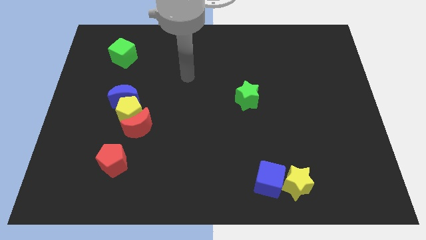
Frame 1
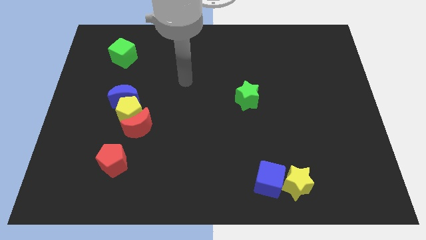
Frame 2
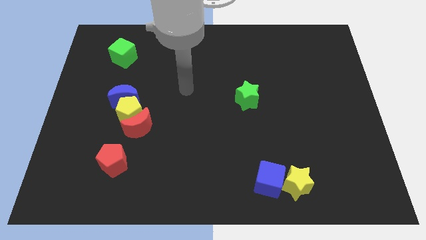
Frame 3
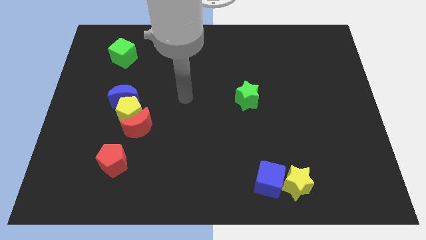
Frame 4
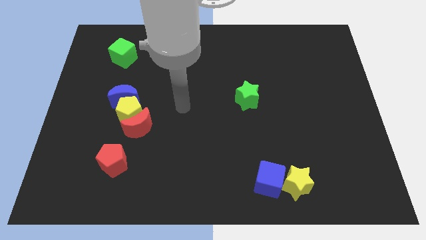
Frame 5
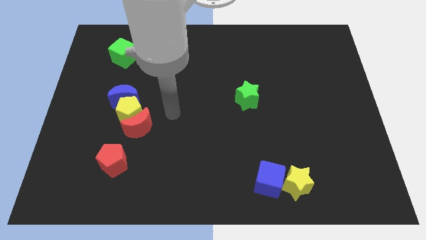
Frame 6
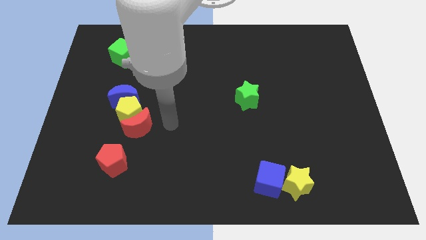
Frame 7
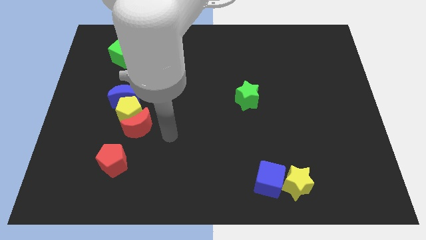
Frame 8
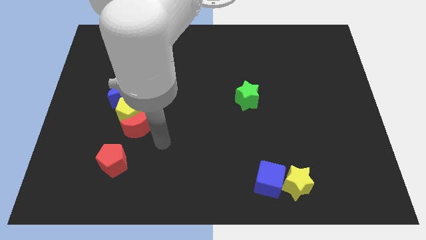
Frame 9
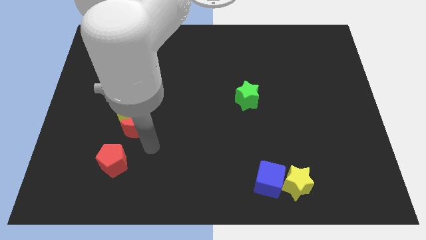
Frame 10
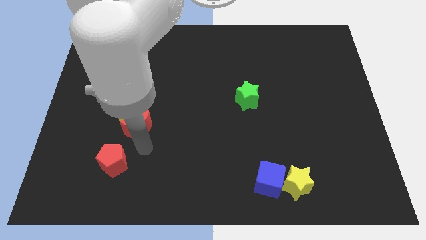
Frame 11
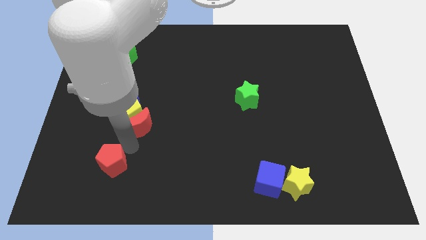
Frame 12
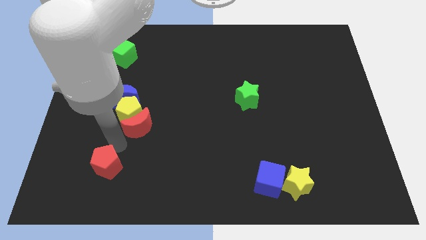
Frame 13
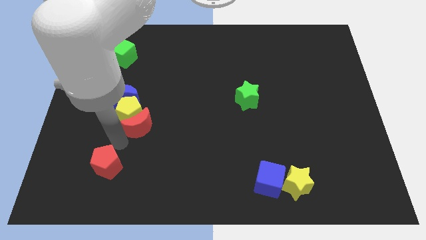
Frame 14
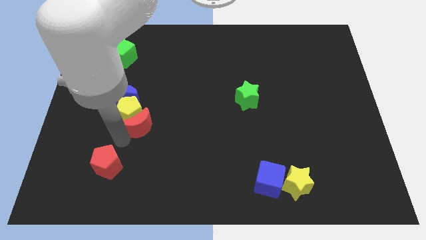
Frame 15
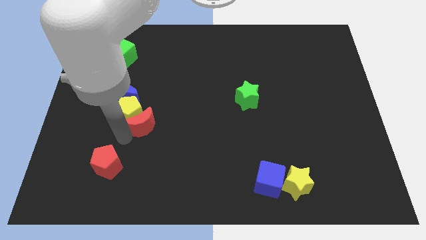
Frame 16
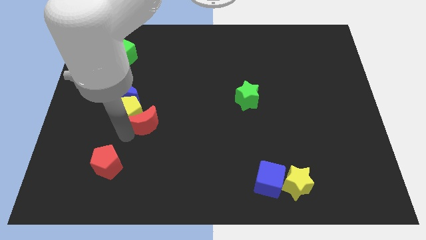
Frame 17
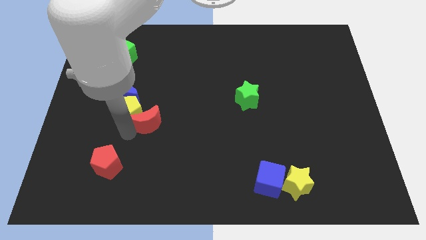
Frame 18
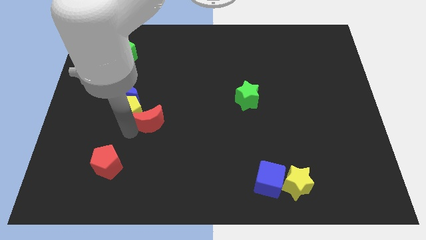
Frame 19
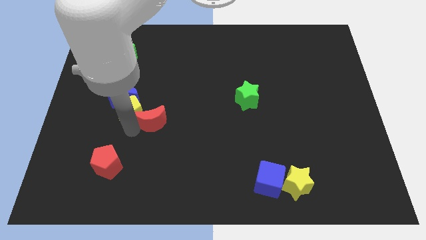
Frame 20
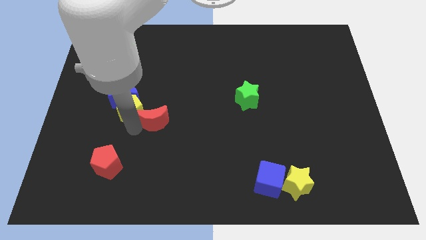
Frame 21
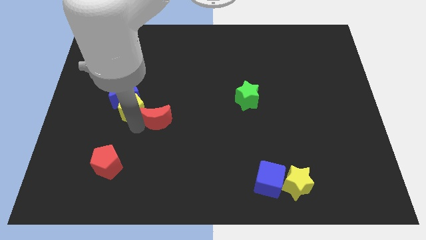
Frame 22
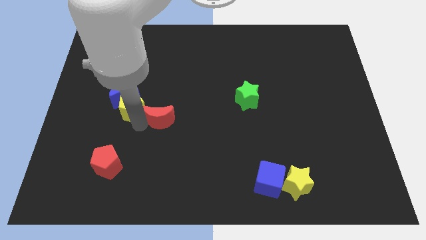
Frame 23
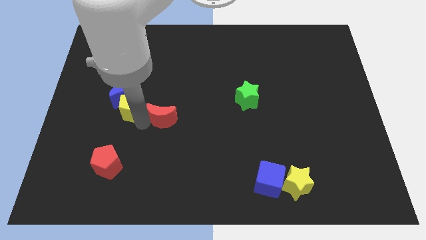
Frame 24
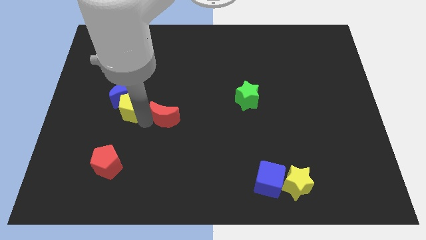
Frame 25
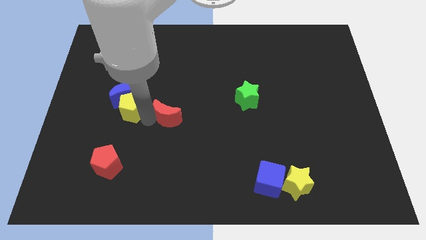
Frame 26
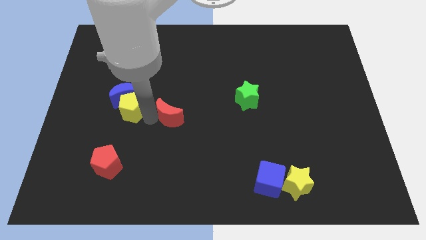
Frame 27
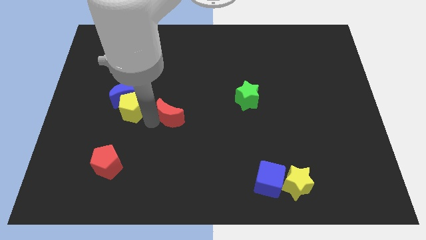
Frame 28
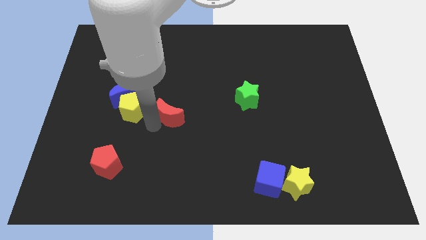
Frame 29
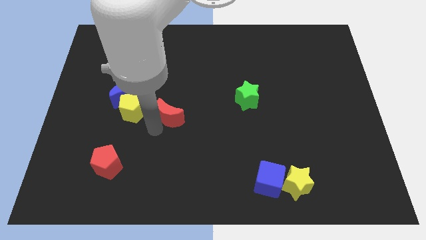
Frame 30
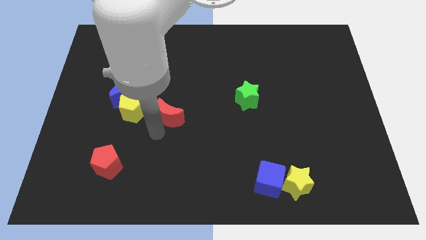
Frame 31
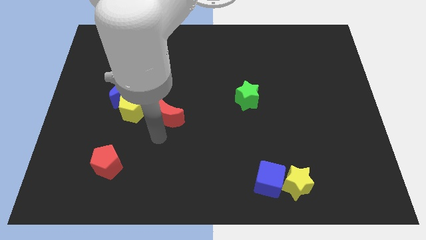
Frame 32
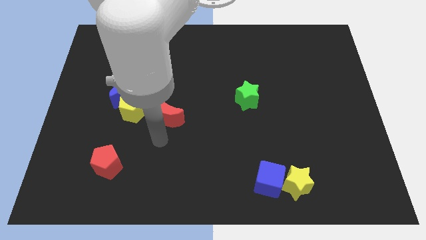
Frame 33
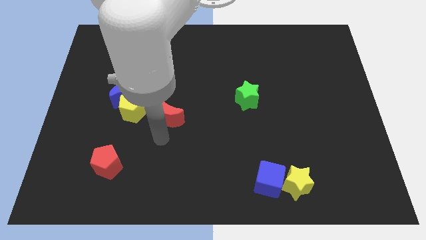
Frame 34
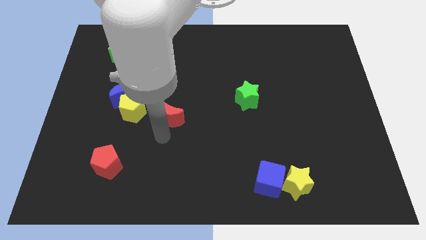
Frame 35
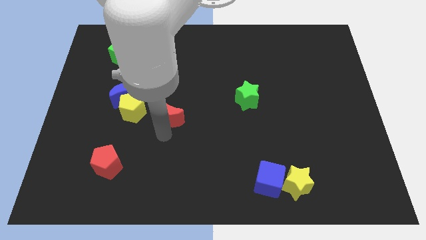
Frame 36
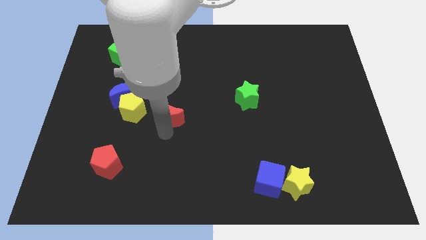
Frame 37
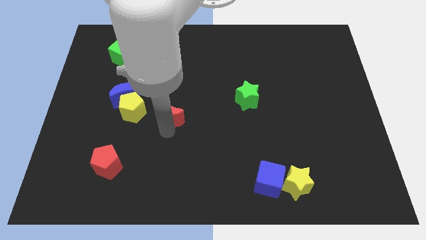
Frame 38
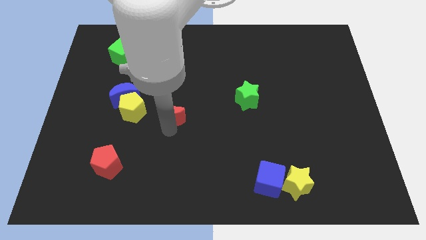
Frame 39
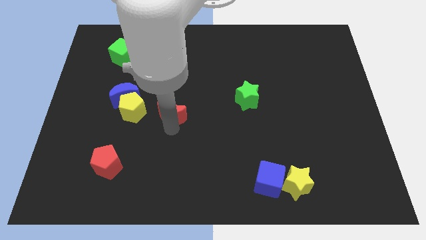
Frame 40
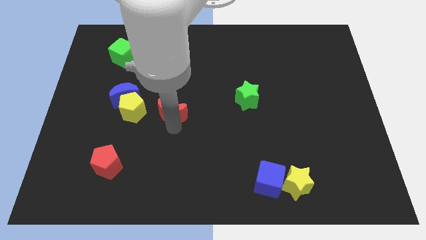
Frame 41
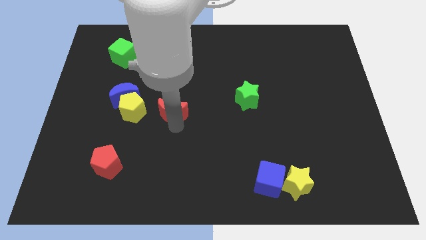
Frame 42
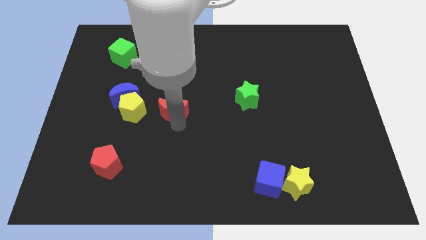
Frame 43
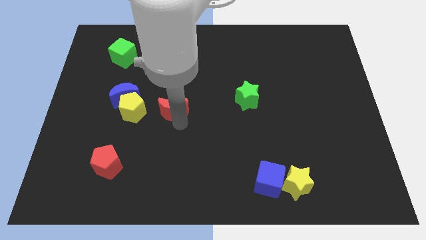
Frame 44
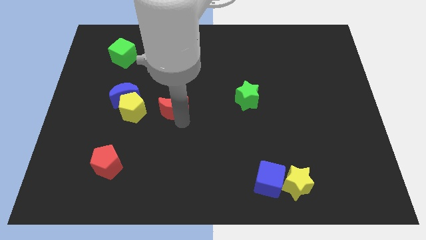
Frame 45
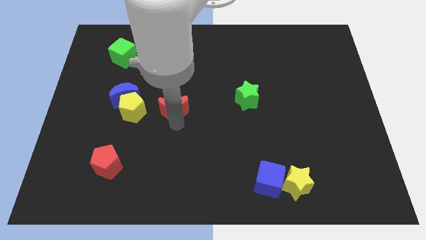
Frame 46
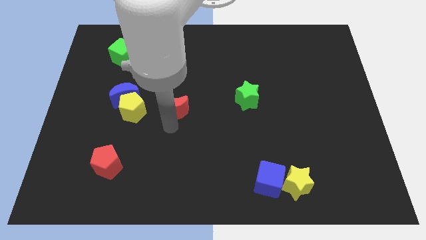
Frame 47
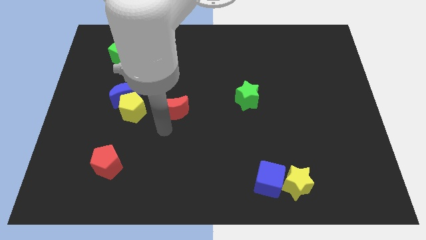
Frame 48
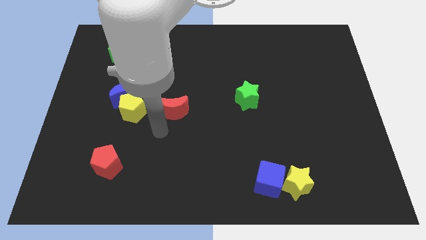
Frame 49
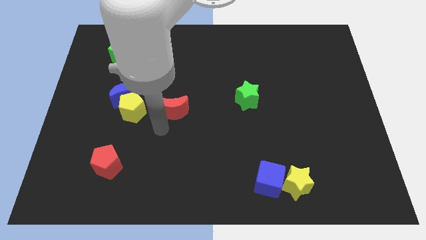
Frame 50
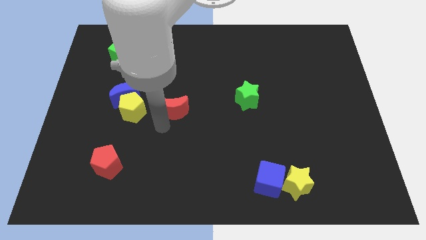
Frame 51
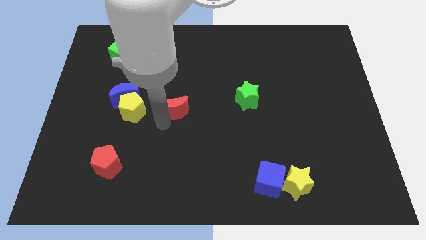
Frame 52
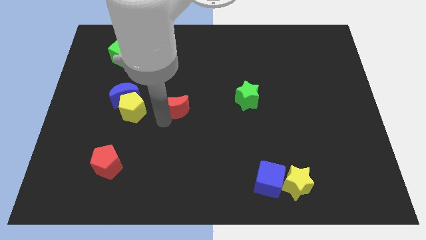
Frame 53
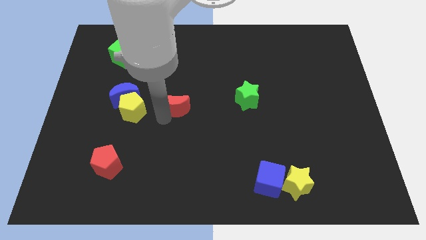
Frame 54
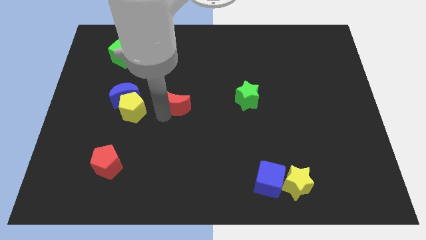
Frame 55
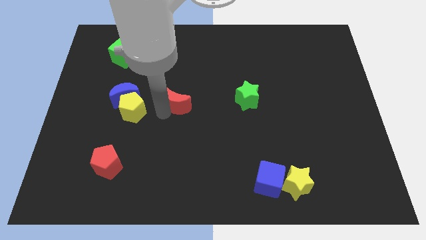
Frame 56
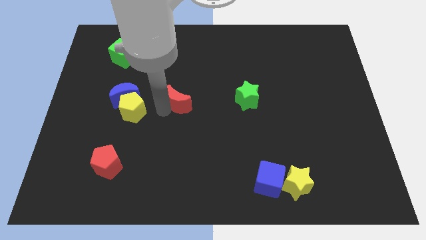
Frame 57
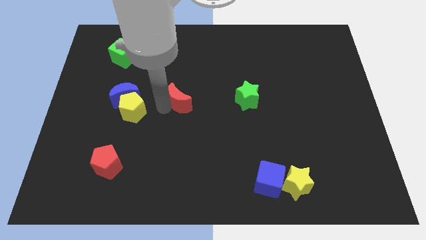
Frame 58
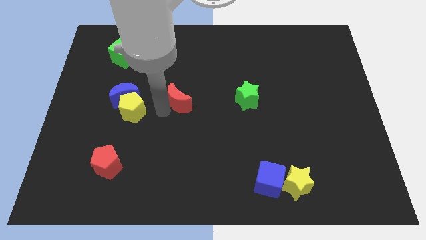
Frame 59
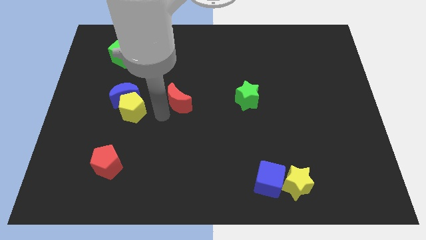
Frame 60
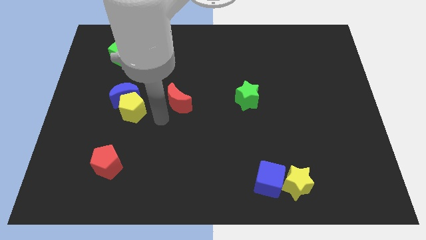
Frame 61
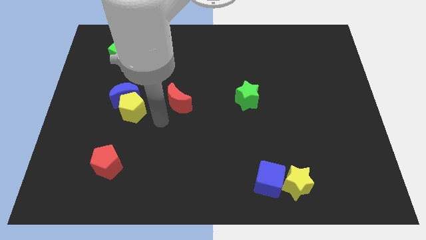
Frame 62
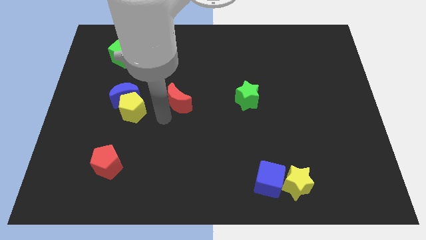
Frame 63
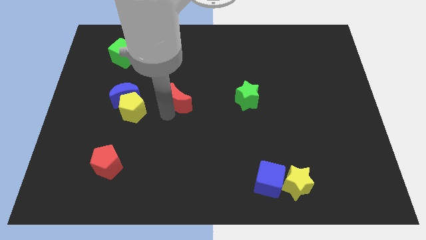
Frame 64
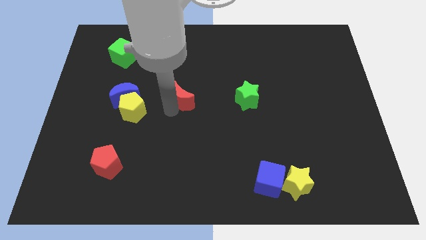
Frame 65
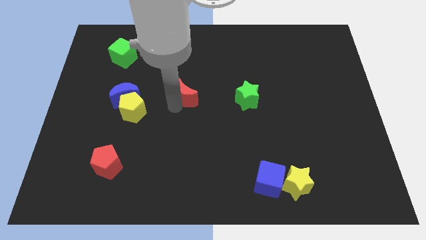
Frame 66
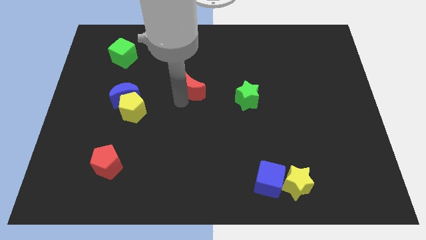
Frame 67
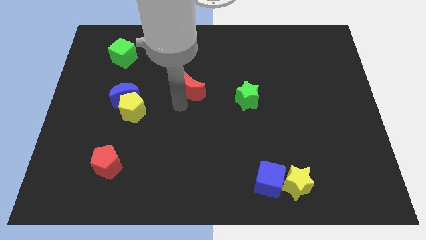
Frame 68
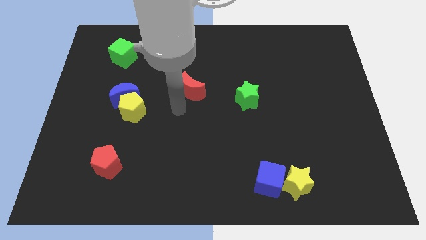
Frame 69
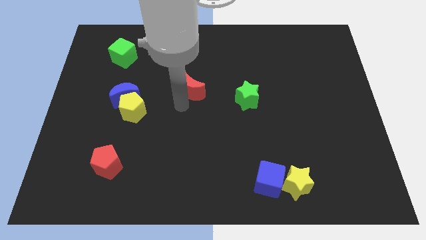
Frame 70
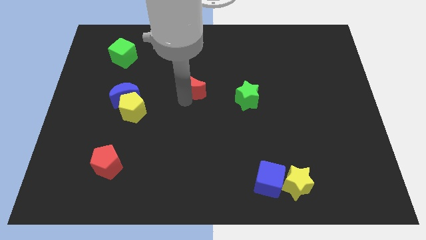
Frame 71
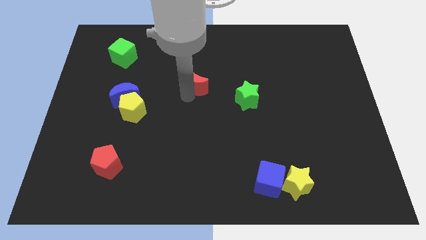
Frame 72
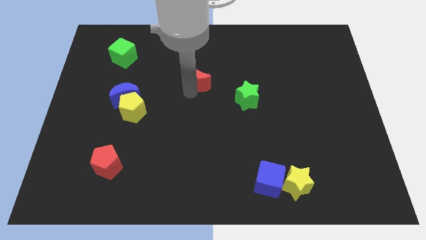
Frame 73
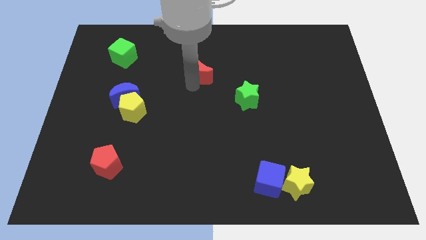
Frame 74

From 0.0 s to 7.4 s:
slide the red moon upwards and right diagonally

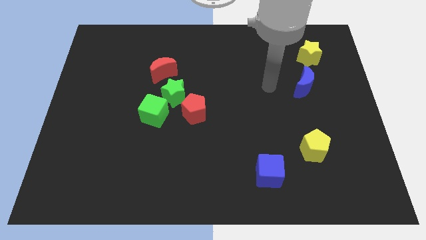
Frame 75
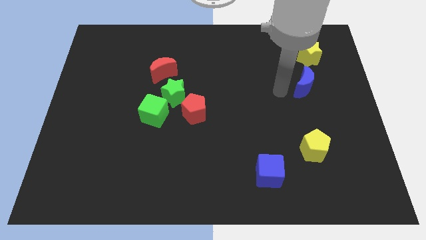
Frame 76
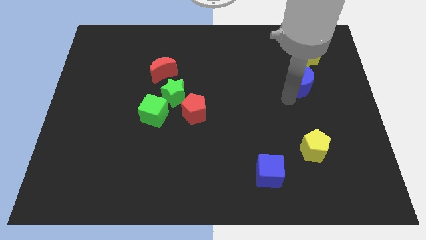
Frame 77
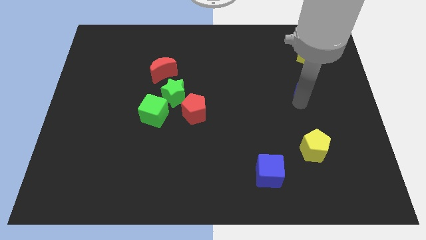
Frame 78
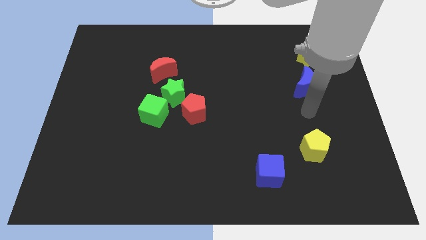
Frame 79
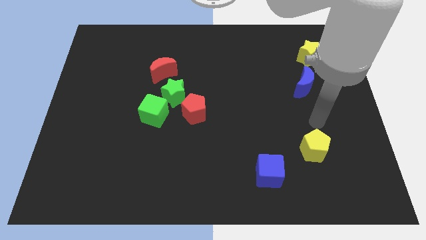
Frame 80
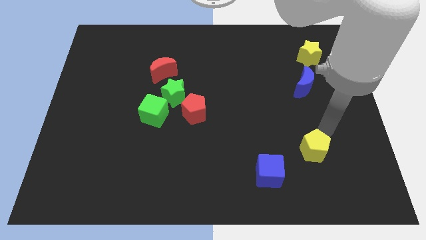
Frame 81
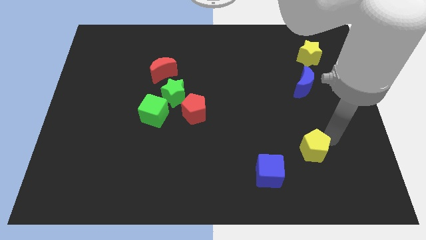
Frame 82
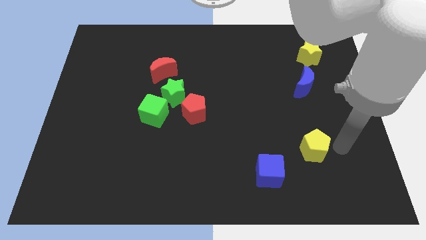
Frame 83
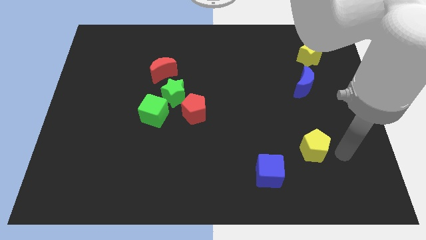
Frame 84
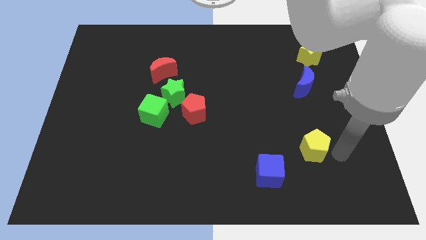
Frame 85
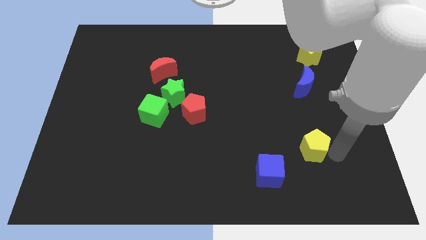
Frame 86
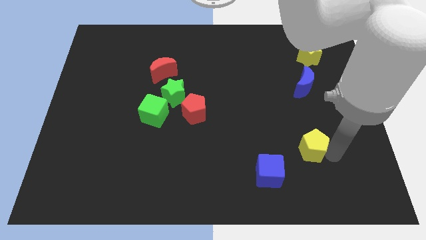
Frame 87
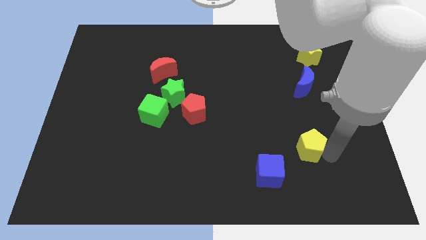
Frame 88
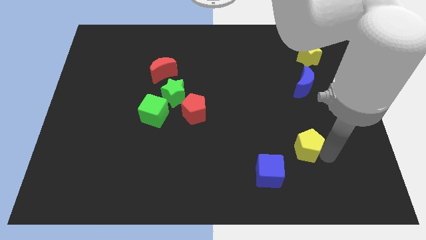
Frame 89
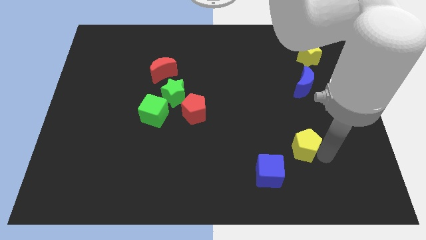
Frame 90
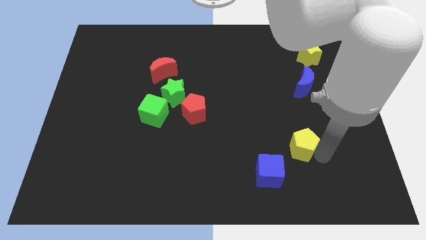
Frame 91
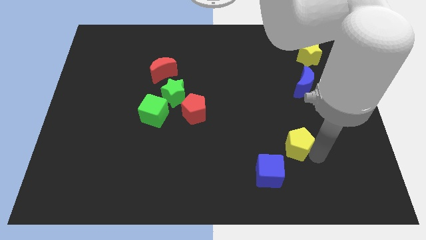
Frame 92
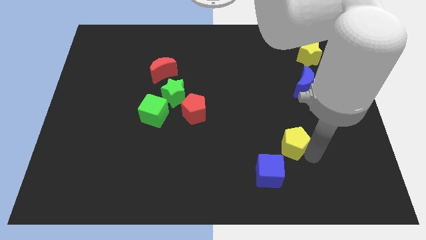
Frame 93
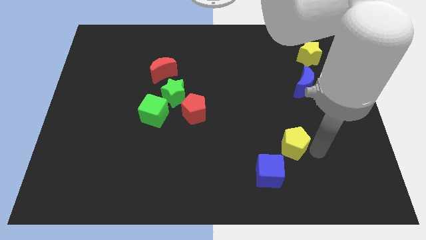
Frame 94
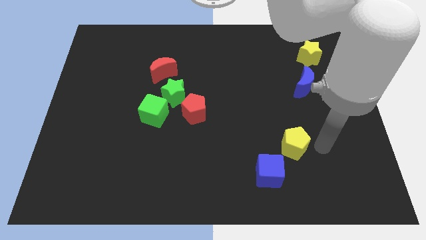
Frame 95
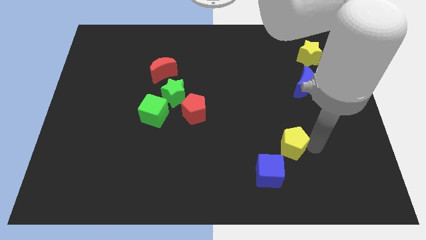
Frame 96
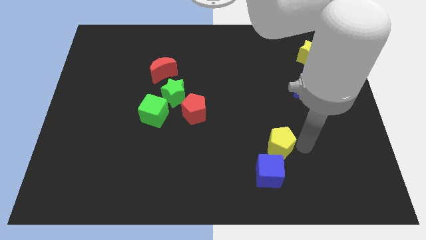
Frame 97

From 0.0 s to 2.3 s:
move the yellow pentagon a little bit to the left
